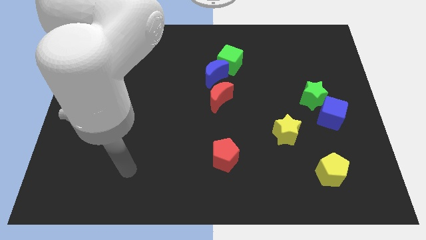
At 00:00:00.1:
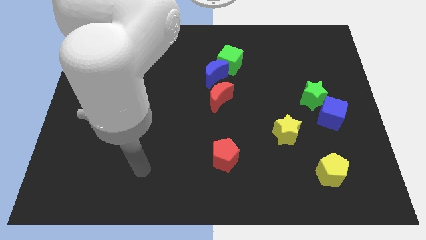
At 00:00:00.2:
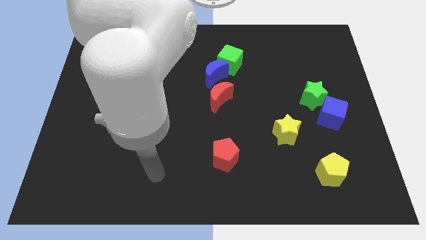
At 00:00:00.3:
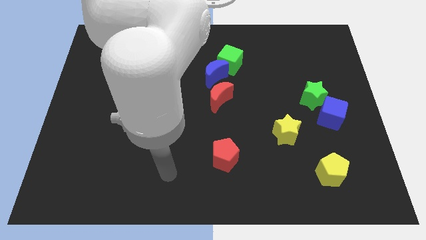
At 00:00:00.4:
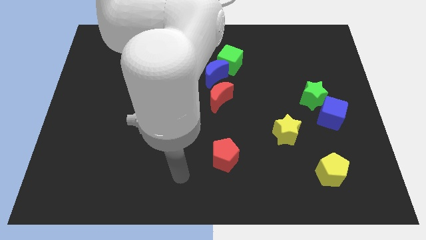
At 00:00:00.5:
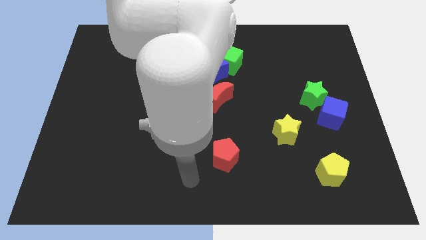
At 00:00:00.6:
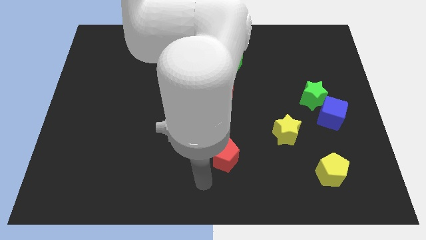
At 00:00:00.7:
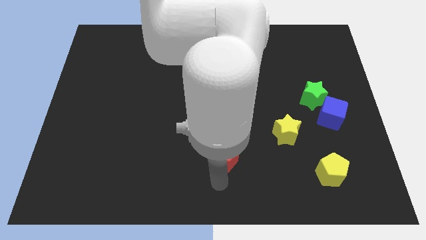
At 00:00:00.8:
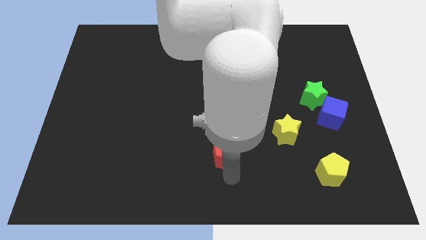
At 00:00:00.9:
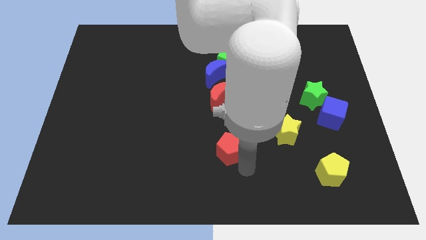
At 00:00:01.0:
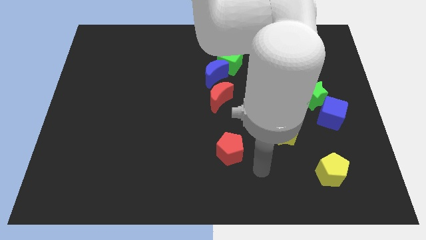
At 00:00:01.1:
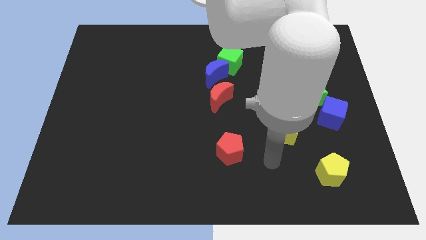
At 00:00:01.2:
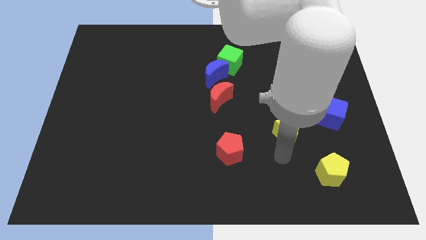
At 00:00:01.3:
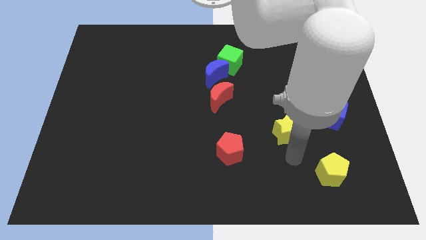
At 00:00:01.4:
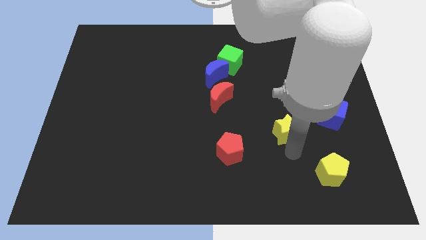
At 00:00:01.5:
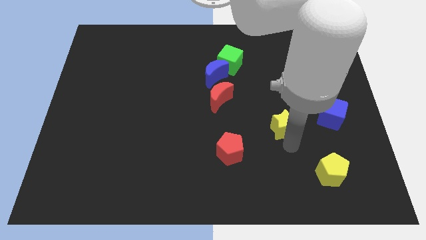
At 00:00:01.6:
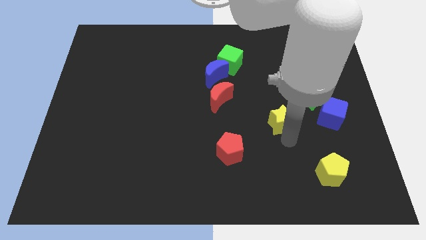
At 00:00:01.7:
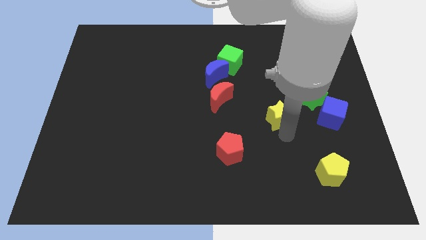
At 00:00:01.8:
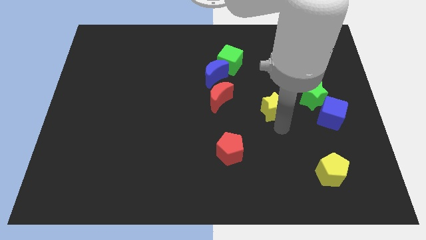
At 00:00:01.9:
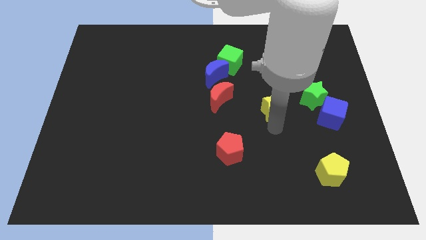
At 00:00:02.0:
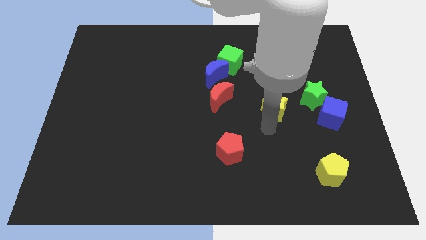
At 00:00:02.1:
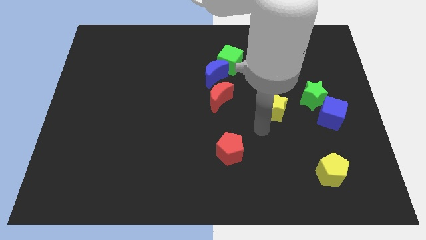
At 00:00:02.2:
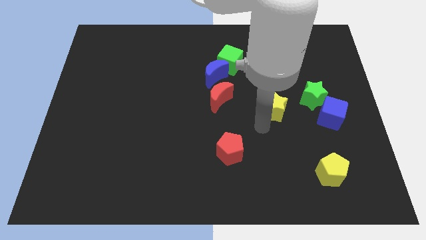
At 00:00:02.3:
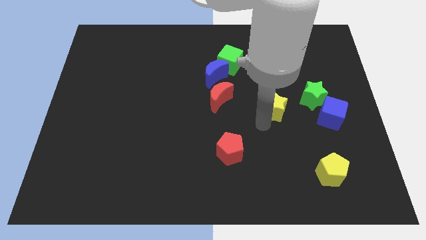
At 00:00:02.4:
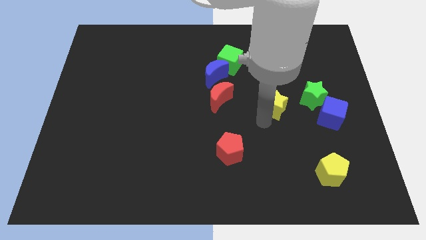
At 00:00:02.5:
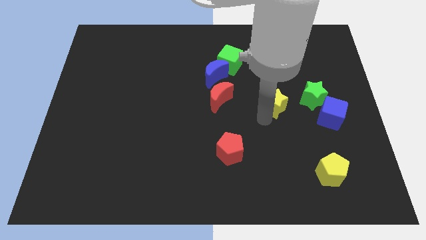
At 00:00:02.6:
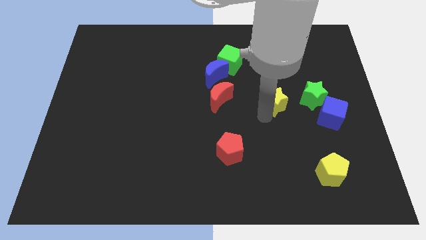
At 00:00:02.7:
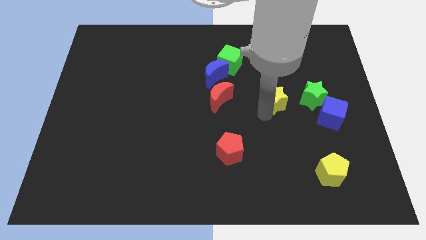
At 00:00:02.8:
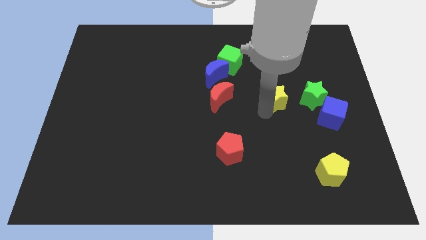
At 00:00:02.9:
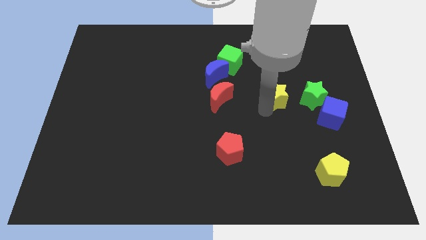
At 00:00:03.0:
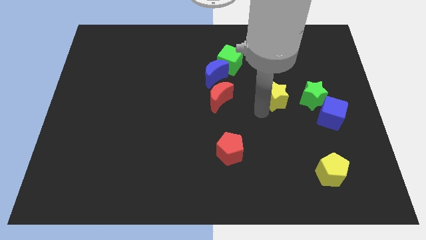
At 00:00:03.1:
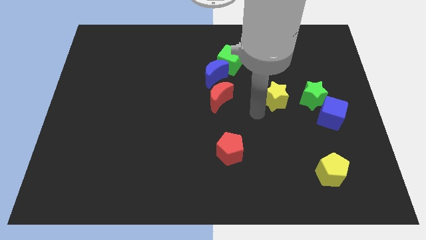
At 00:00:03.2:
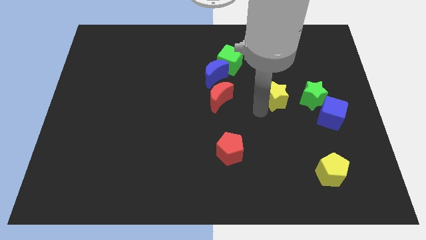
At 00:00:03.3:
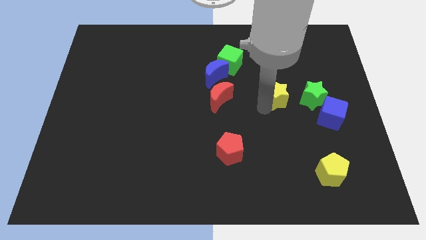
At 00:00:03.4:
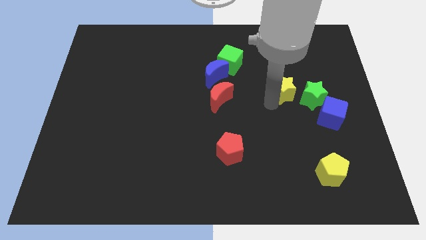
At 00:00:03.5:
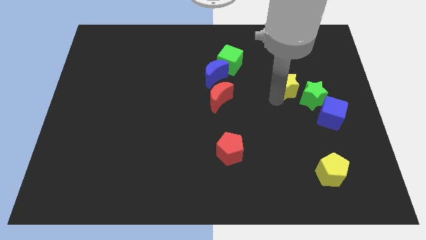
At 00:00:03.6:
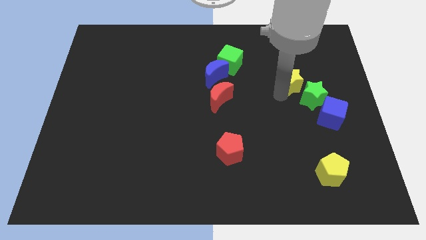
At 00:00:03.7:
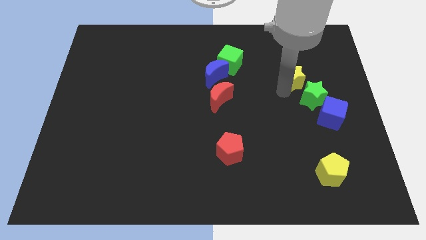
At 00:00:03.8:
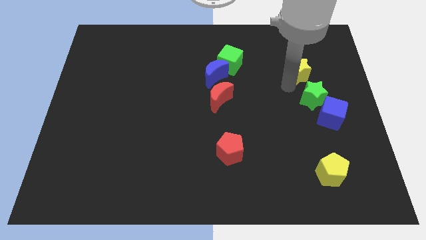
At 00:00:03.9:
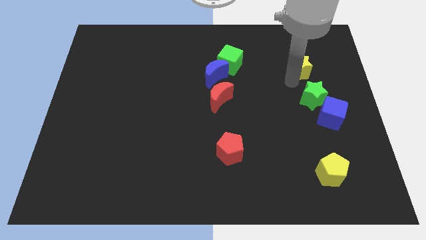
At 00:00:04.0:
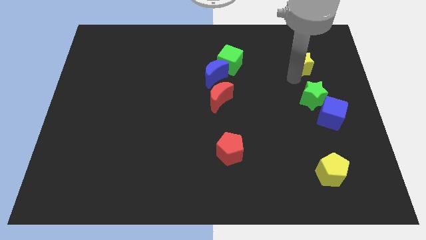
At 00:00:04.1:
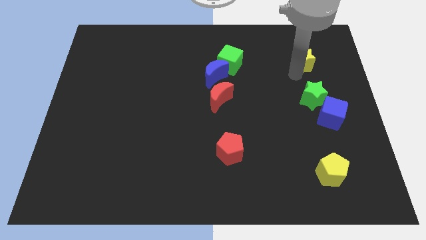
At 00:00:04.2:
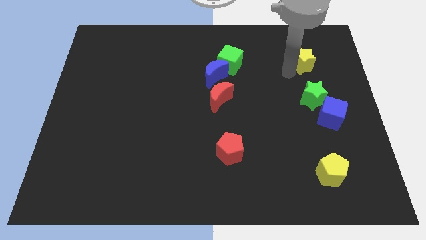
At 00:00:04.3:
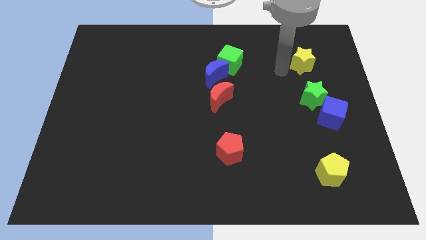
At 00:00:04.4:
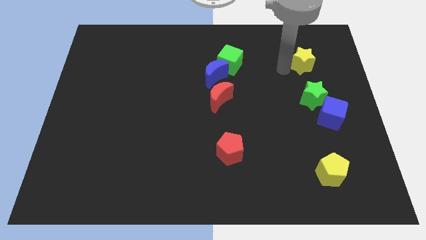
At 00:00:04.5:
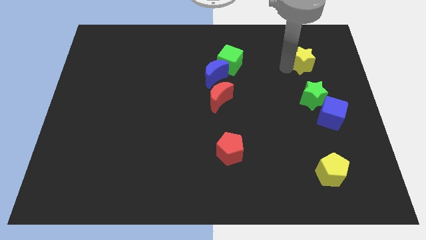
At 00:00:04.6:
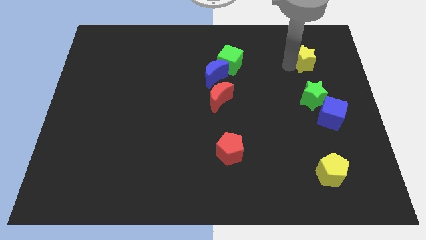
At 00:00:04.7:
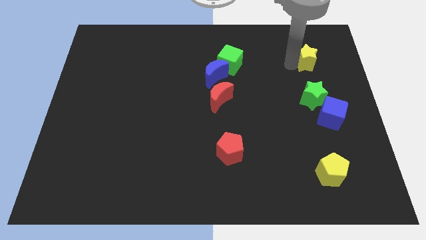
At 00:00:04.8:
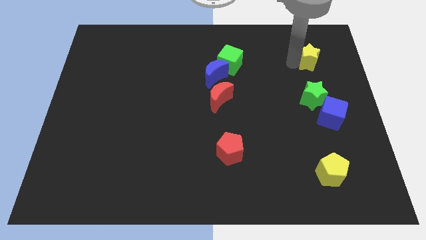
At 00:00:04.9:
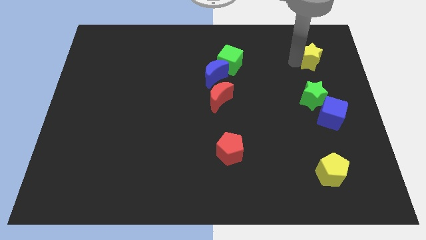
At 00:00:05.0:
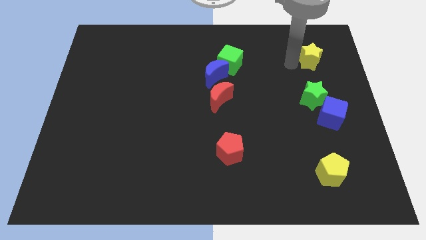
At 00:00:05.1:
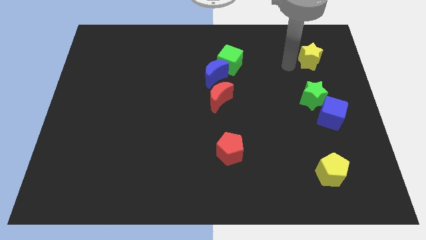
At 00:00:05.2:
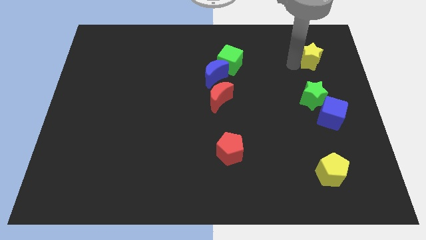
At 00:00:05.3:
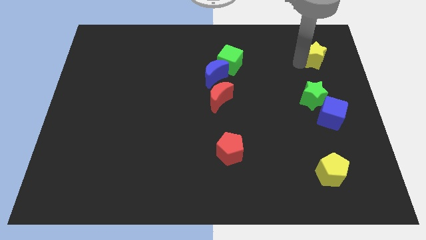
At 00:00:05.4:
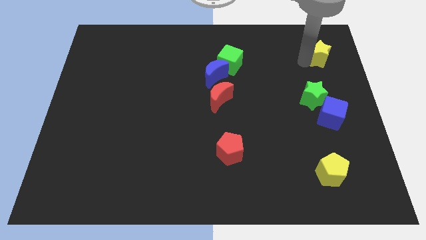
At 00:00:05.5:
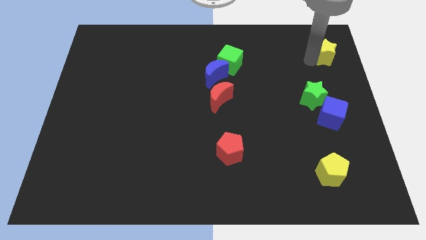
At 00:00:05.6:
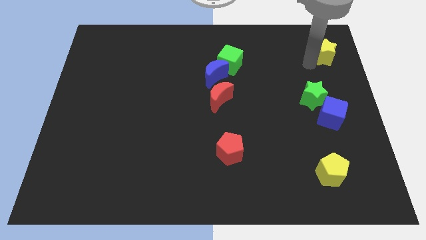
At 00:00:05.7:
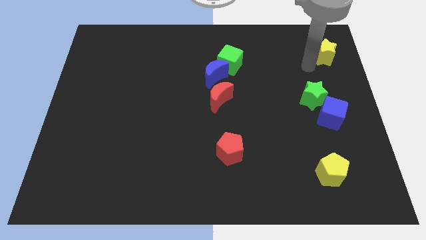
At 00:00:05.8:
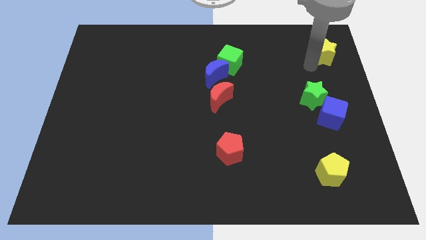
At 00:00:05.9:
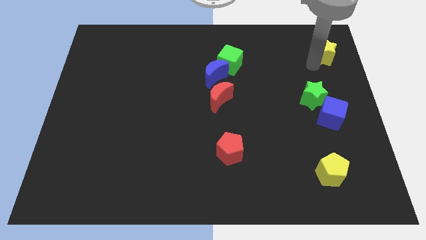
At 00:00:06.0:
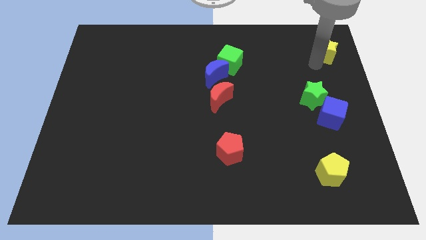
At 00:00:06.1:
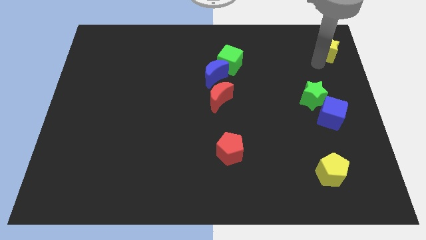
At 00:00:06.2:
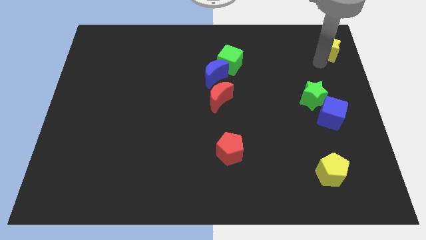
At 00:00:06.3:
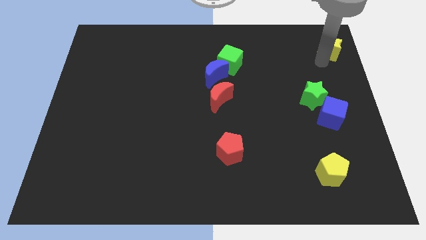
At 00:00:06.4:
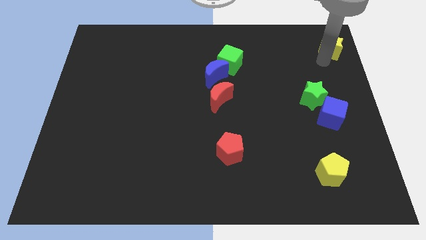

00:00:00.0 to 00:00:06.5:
move the yellow star to the top right
